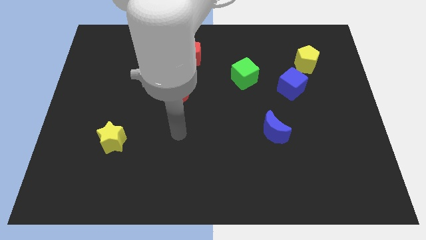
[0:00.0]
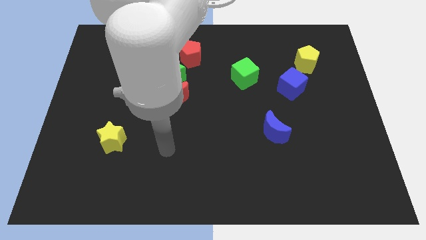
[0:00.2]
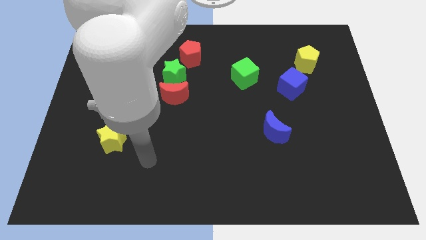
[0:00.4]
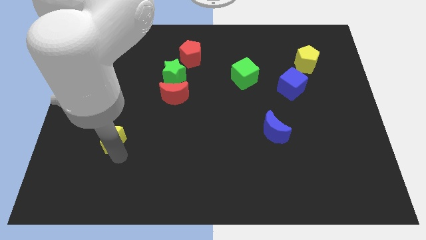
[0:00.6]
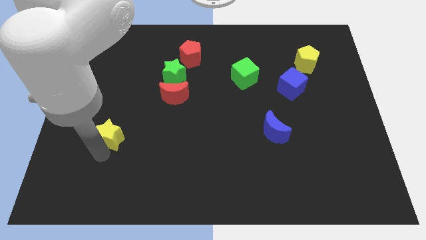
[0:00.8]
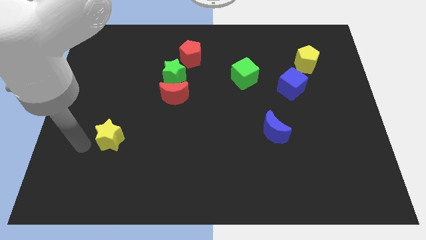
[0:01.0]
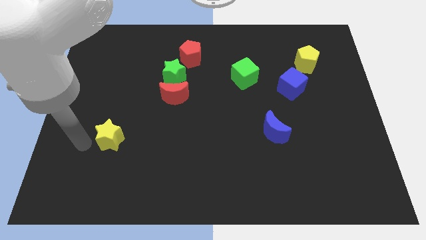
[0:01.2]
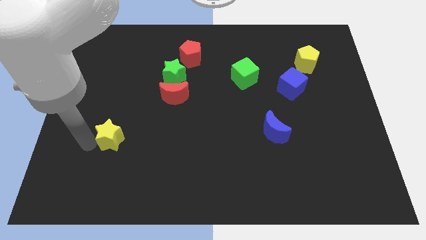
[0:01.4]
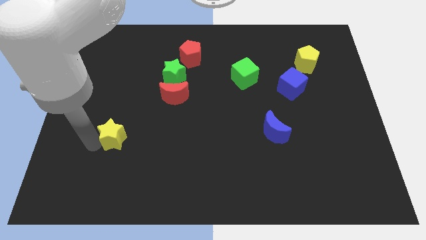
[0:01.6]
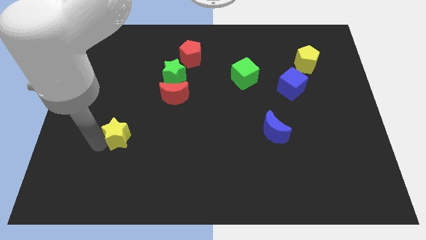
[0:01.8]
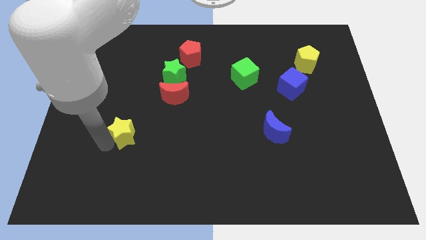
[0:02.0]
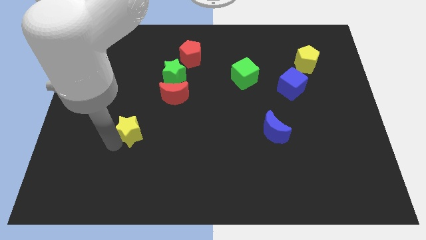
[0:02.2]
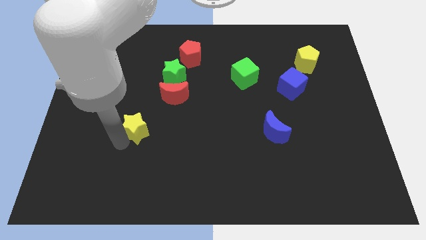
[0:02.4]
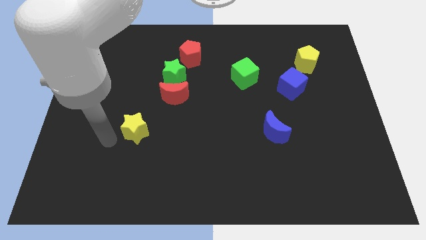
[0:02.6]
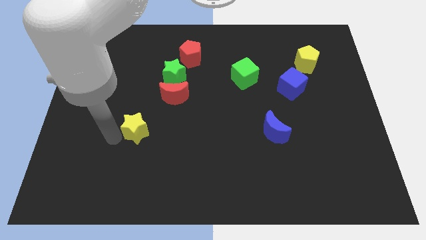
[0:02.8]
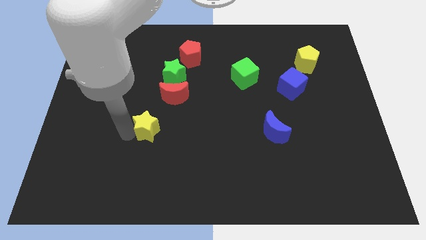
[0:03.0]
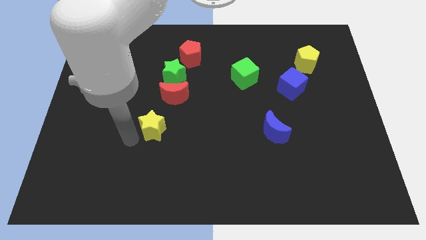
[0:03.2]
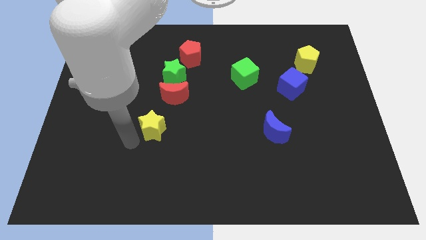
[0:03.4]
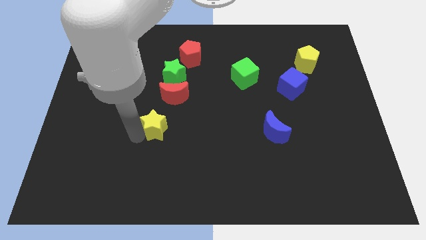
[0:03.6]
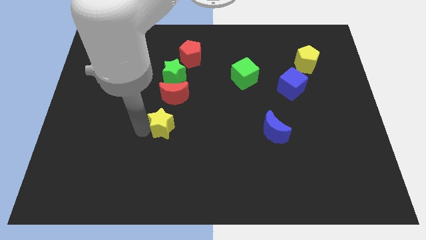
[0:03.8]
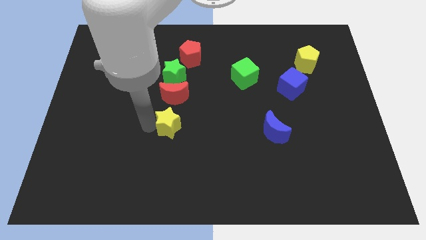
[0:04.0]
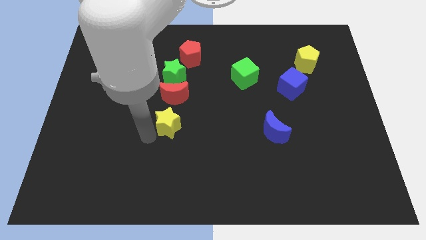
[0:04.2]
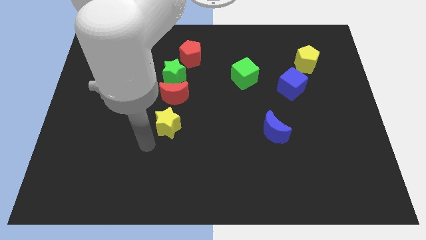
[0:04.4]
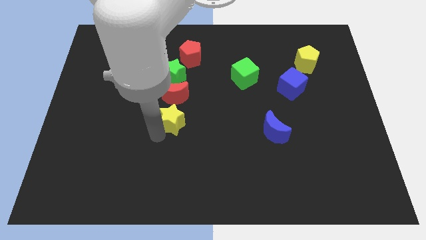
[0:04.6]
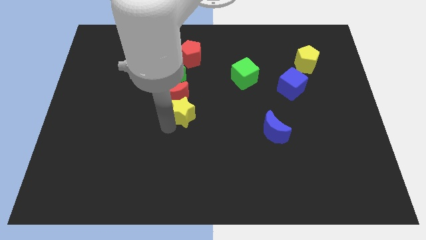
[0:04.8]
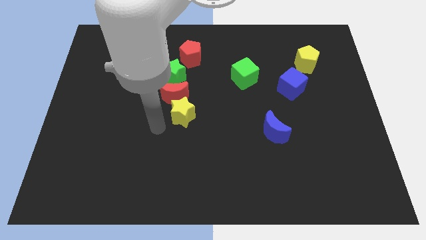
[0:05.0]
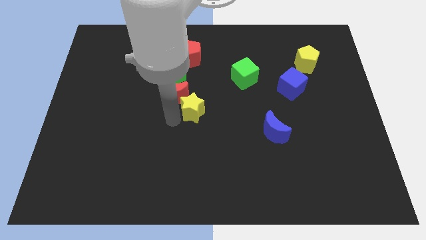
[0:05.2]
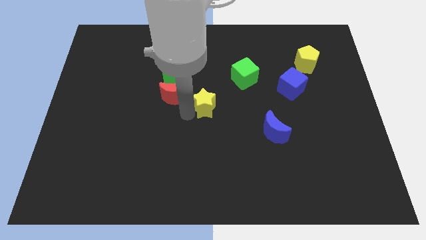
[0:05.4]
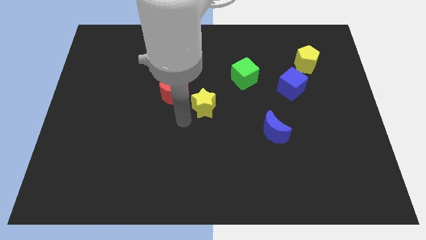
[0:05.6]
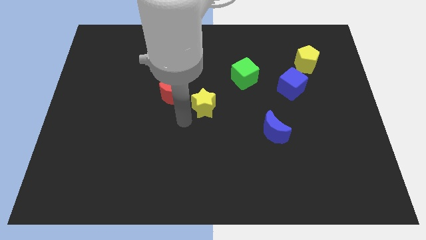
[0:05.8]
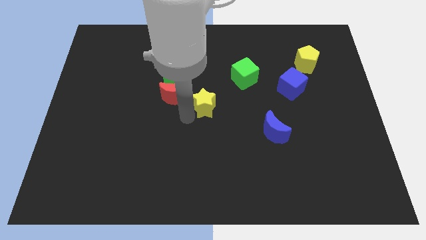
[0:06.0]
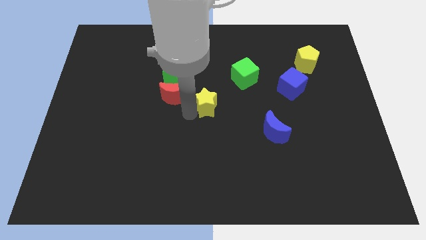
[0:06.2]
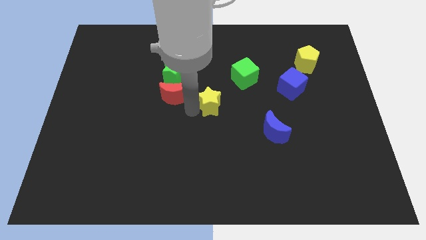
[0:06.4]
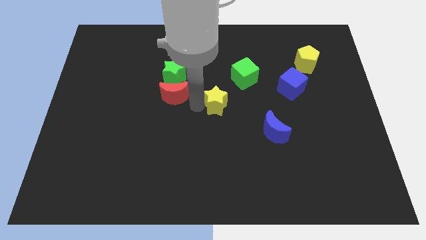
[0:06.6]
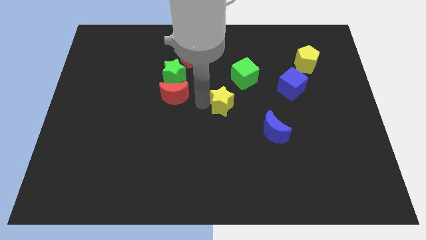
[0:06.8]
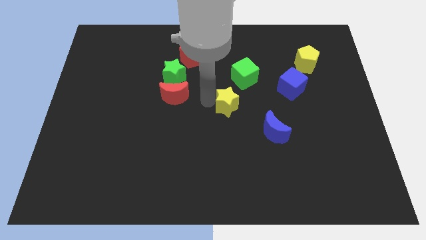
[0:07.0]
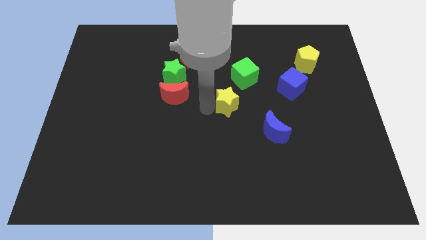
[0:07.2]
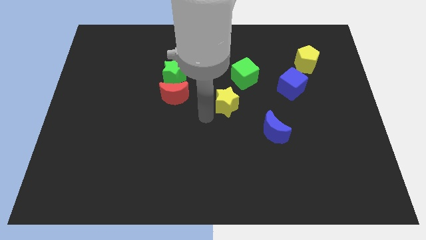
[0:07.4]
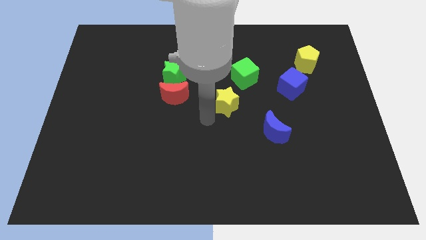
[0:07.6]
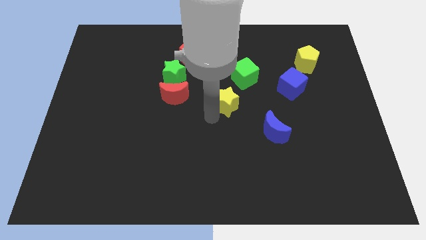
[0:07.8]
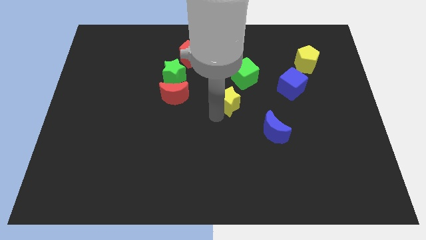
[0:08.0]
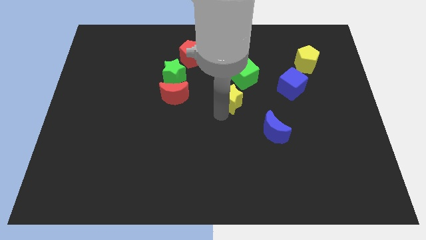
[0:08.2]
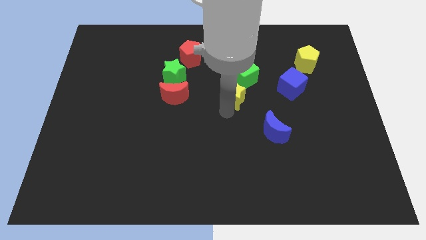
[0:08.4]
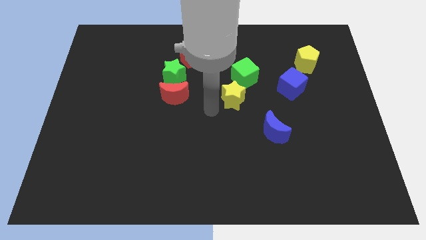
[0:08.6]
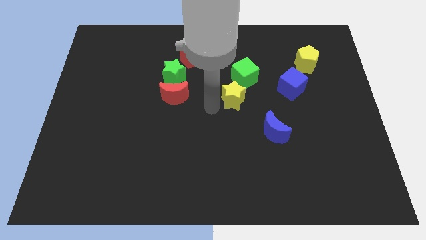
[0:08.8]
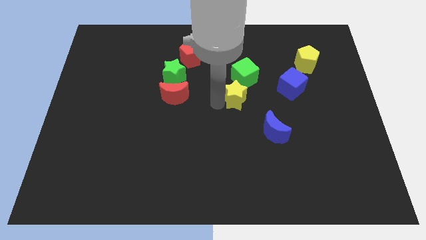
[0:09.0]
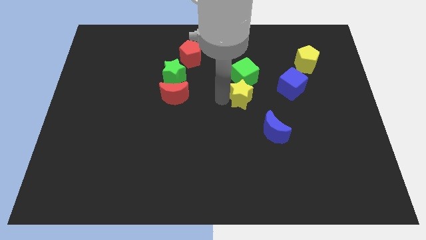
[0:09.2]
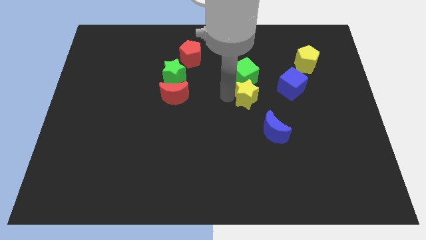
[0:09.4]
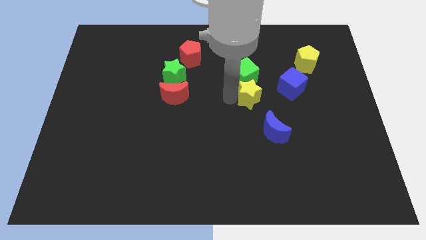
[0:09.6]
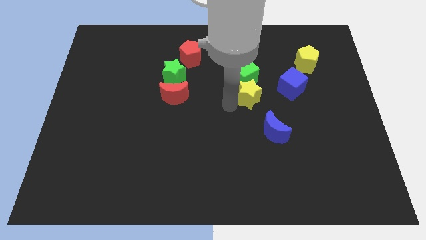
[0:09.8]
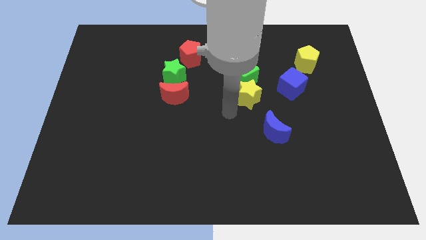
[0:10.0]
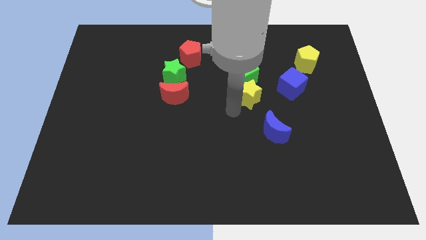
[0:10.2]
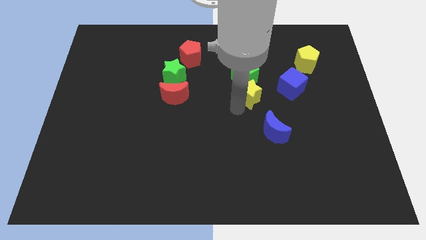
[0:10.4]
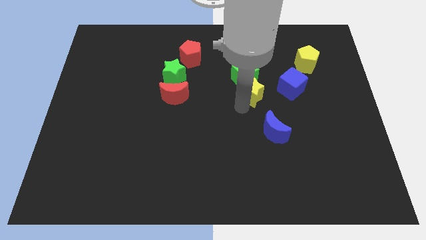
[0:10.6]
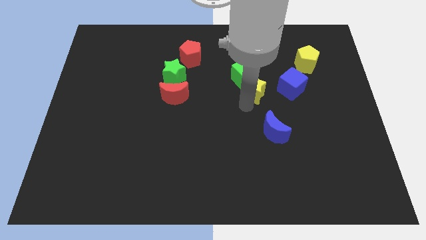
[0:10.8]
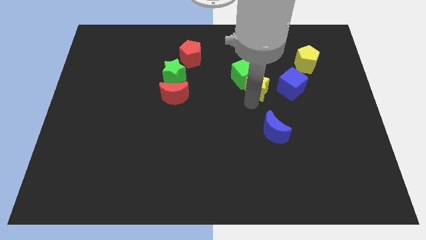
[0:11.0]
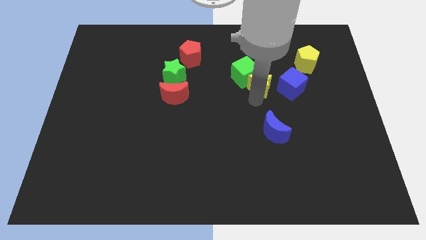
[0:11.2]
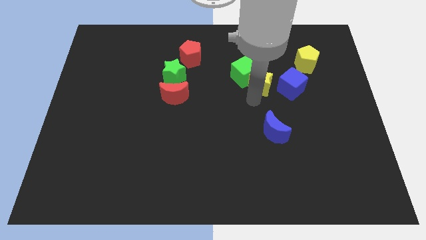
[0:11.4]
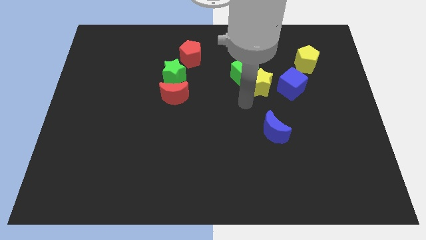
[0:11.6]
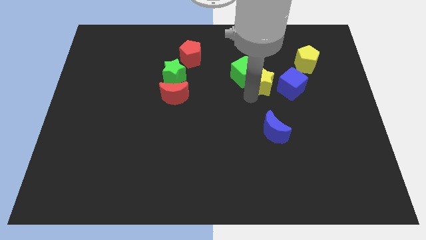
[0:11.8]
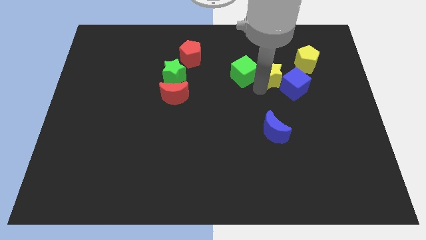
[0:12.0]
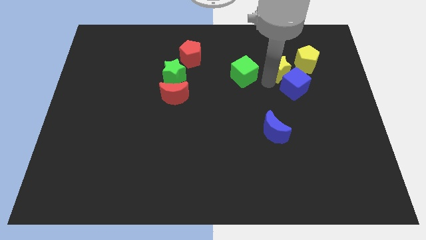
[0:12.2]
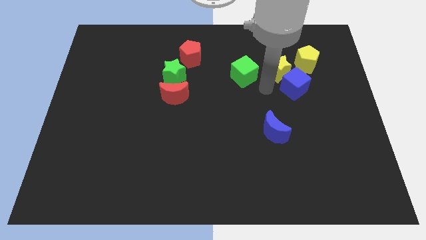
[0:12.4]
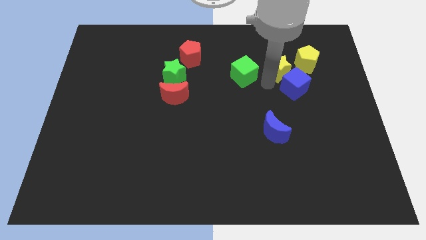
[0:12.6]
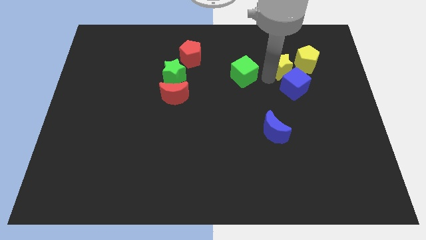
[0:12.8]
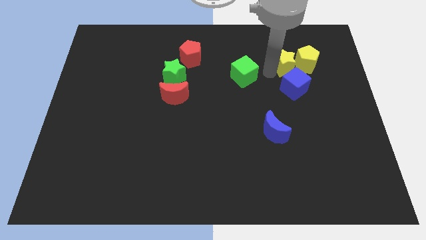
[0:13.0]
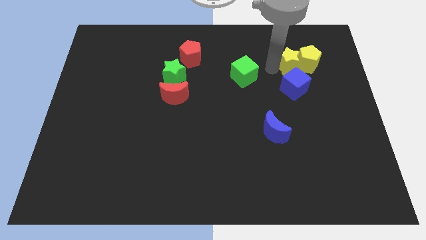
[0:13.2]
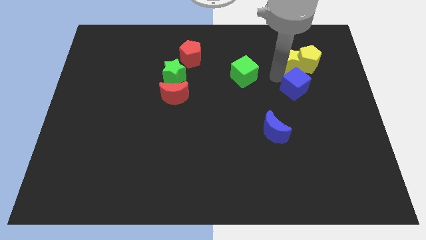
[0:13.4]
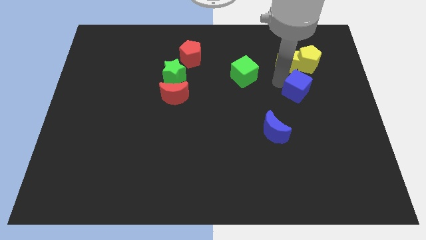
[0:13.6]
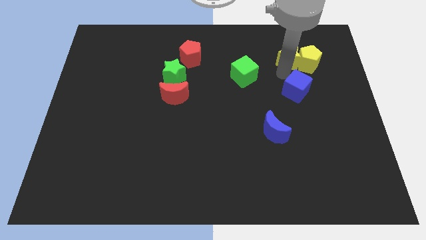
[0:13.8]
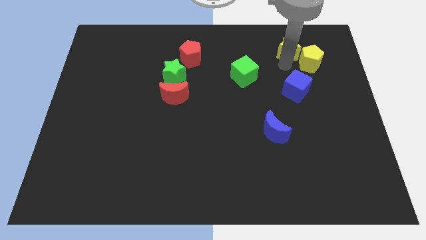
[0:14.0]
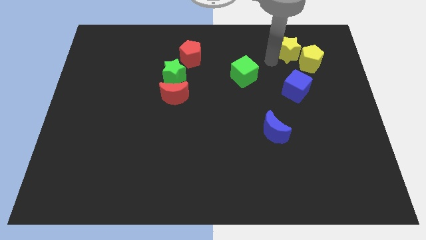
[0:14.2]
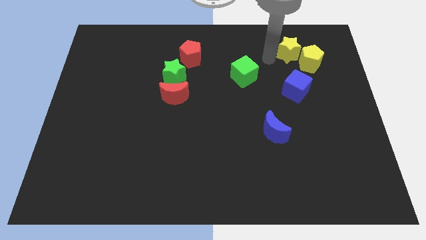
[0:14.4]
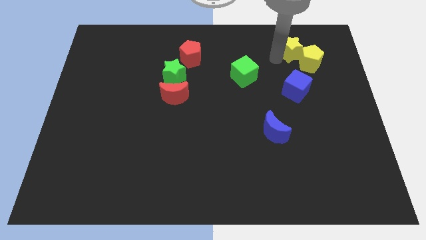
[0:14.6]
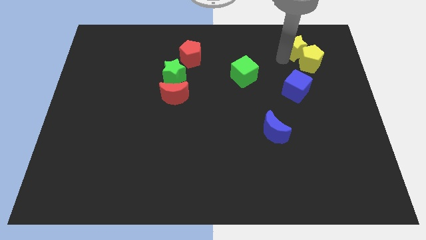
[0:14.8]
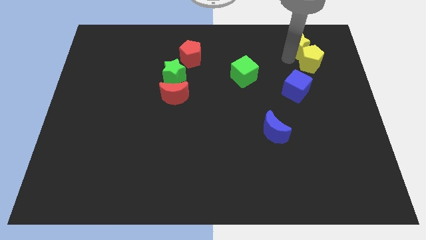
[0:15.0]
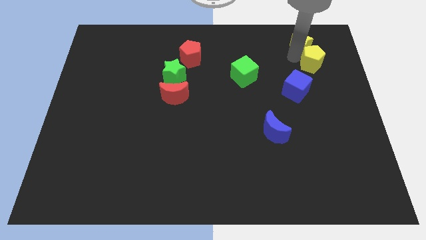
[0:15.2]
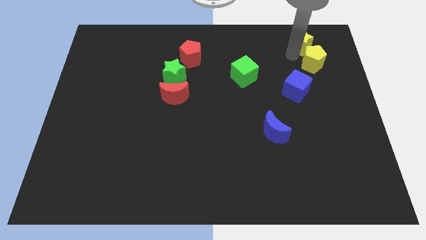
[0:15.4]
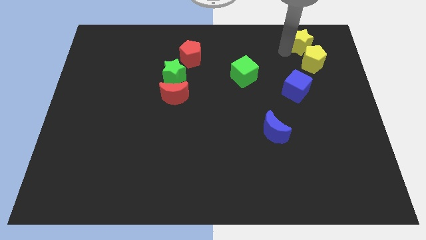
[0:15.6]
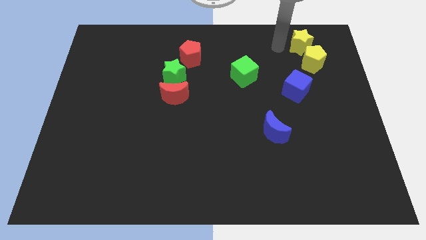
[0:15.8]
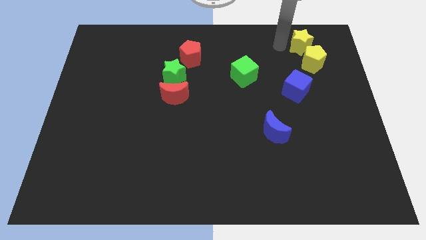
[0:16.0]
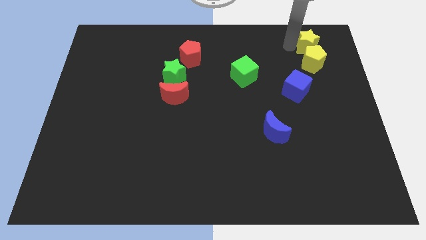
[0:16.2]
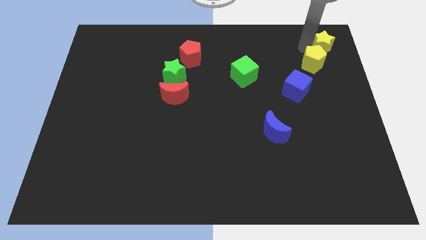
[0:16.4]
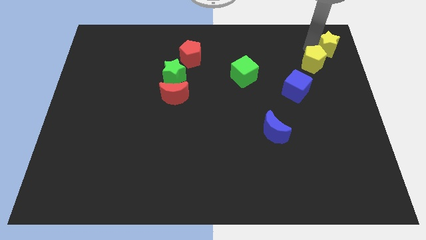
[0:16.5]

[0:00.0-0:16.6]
slide the yellow star to the upper right corner
